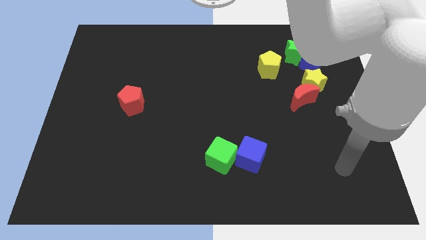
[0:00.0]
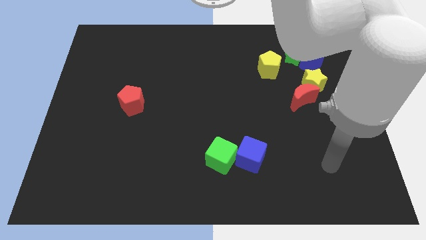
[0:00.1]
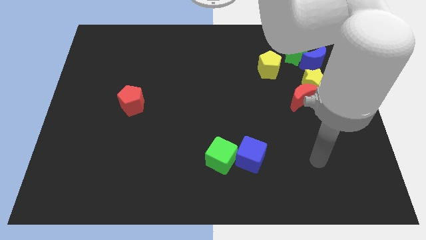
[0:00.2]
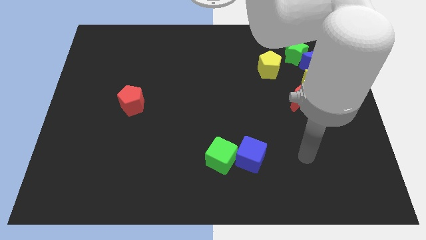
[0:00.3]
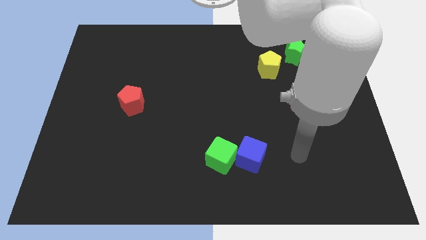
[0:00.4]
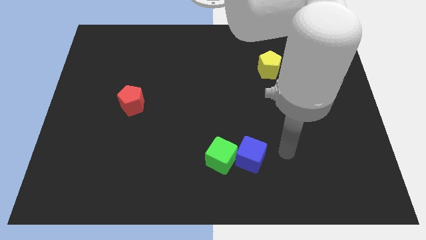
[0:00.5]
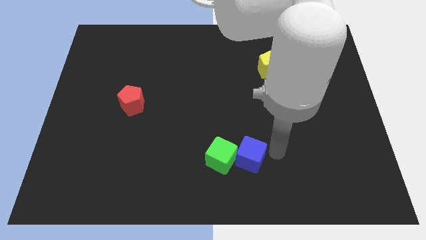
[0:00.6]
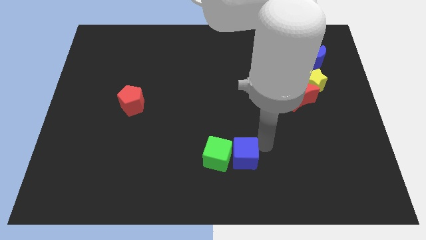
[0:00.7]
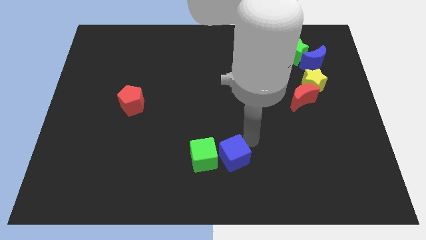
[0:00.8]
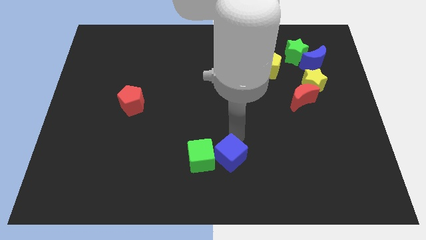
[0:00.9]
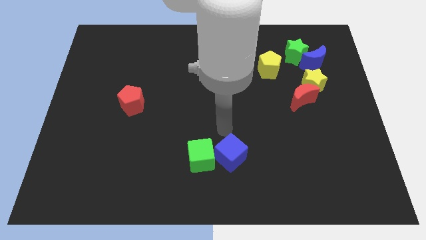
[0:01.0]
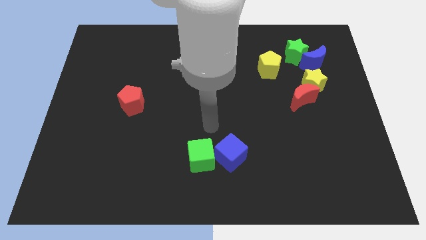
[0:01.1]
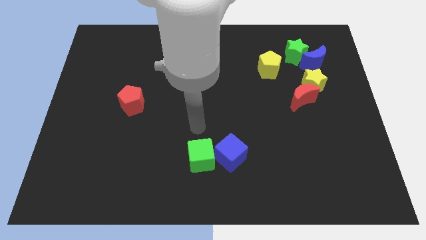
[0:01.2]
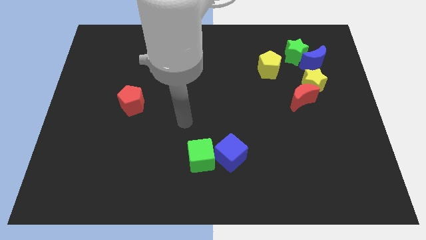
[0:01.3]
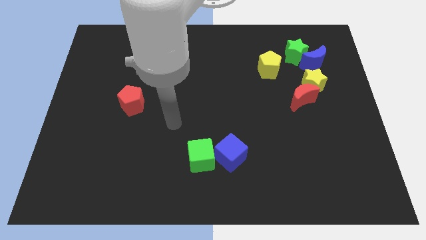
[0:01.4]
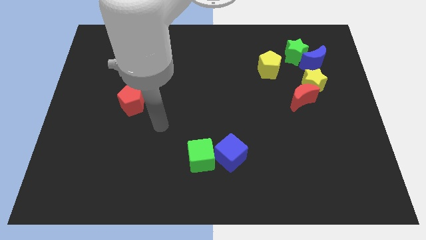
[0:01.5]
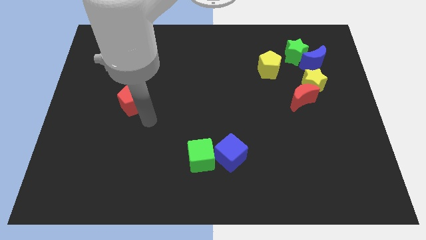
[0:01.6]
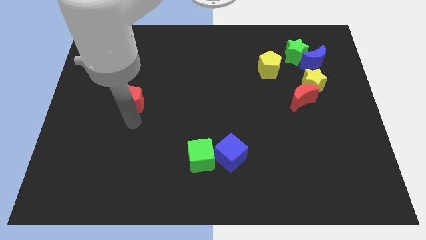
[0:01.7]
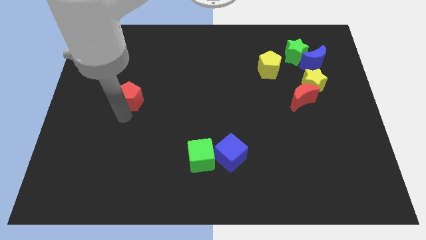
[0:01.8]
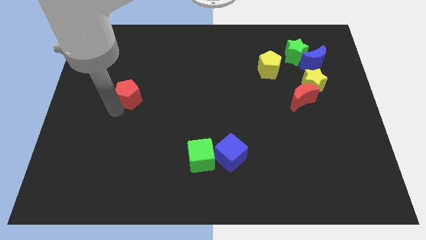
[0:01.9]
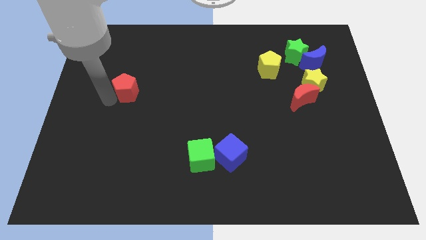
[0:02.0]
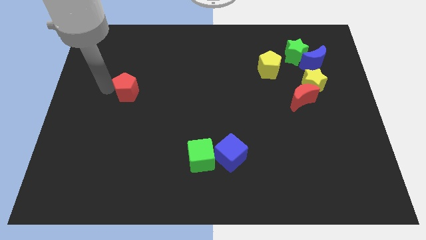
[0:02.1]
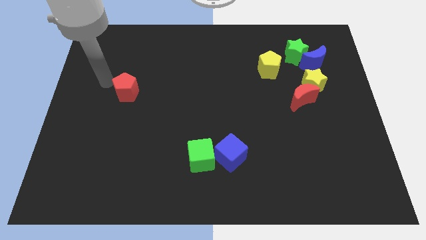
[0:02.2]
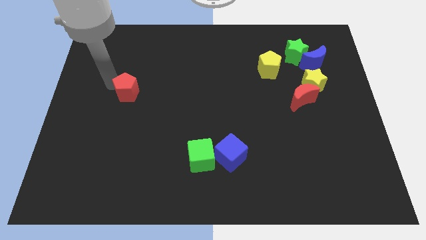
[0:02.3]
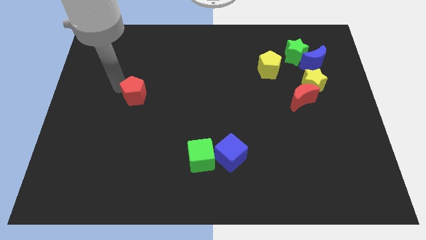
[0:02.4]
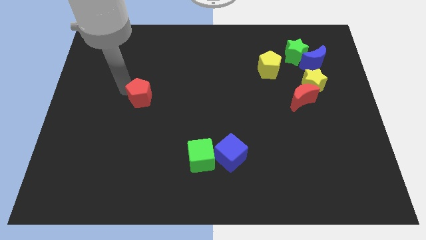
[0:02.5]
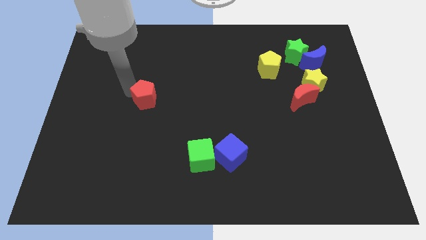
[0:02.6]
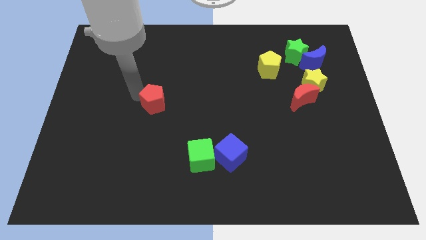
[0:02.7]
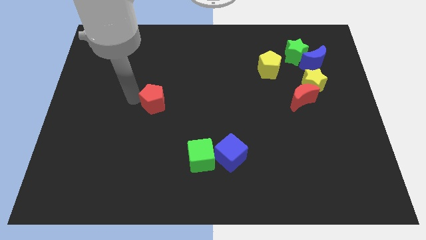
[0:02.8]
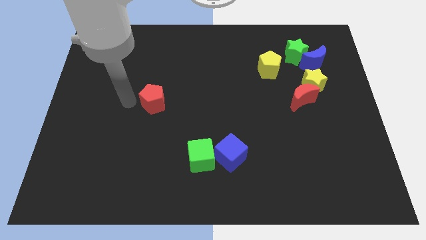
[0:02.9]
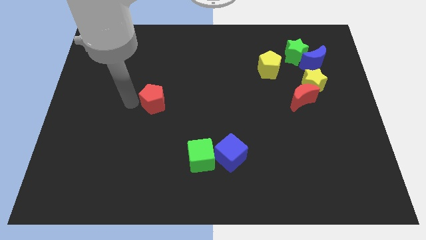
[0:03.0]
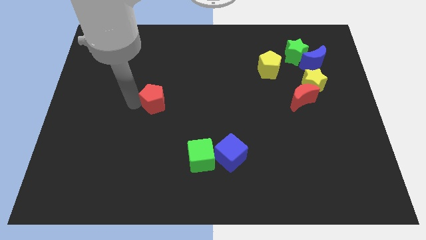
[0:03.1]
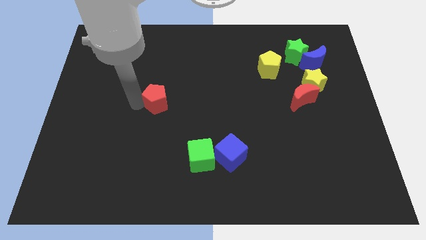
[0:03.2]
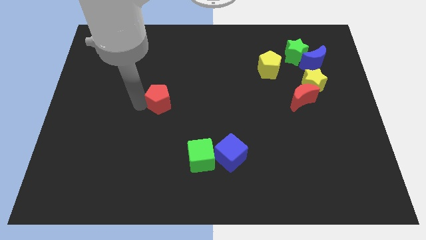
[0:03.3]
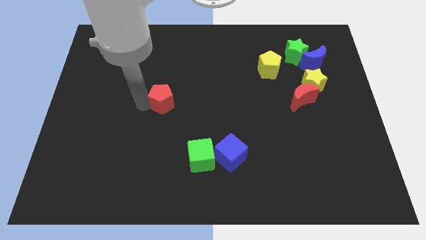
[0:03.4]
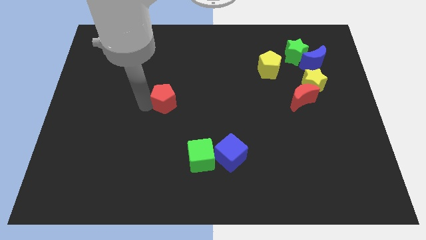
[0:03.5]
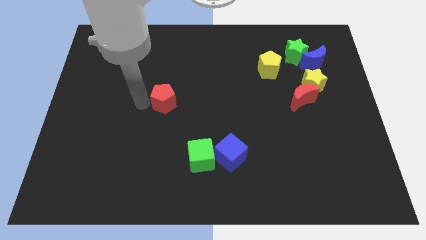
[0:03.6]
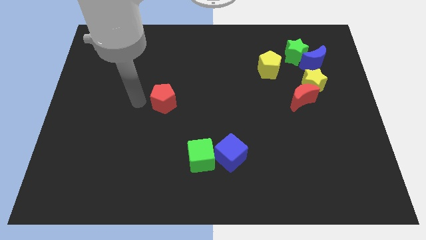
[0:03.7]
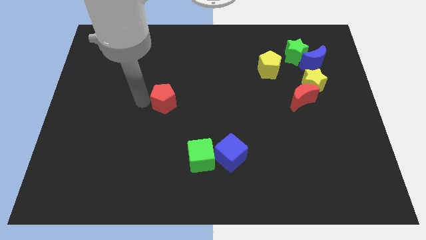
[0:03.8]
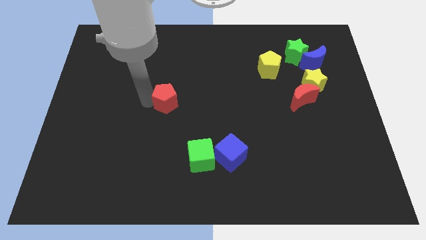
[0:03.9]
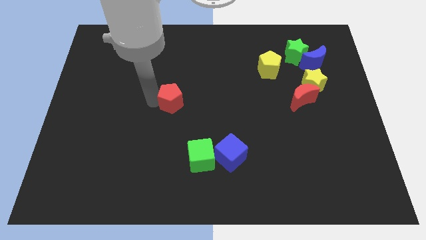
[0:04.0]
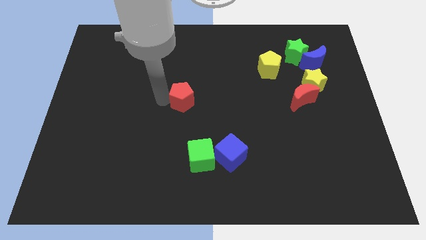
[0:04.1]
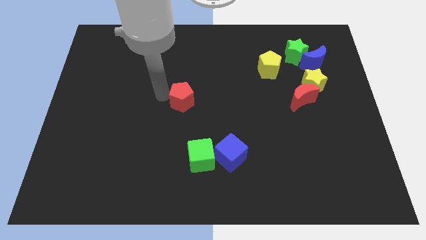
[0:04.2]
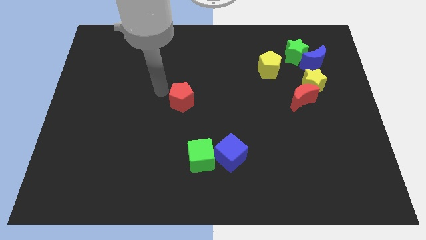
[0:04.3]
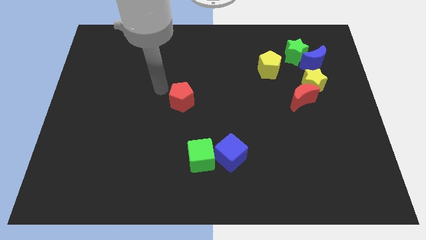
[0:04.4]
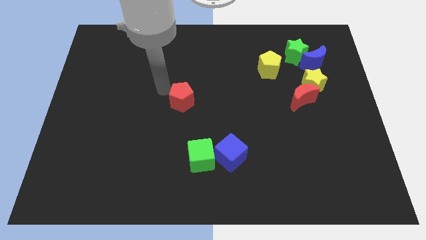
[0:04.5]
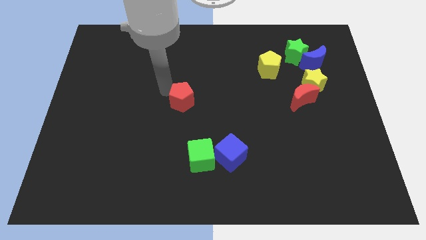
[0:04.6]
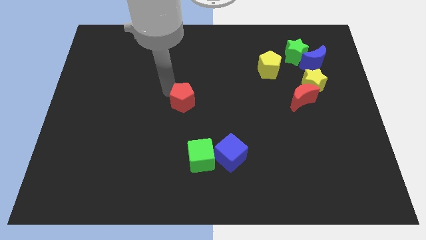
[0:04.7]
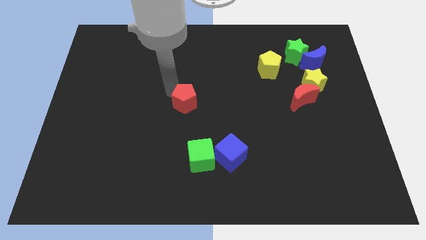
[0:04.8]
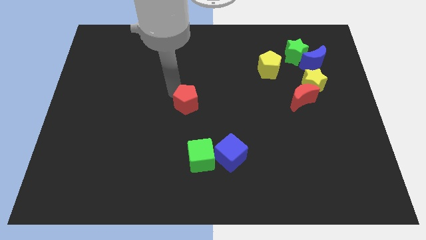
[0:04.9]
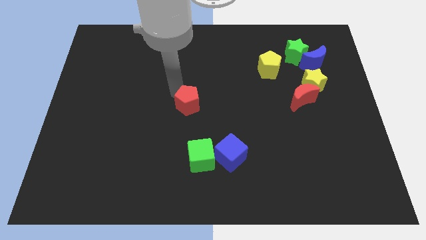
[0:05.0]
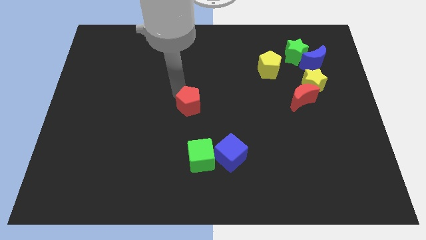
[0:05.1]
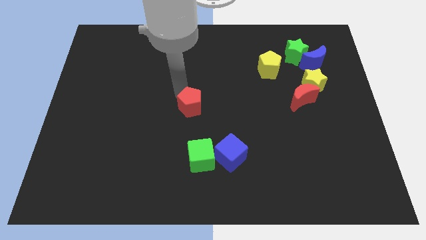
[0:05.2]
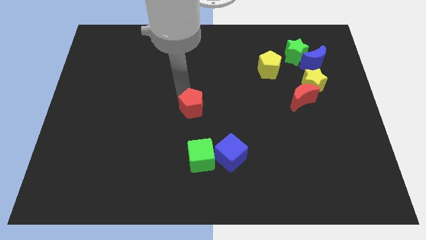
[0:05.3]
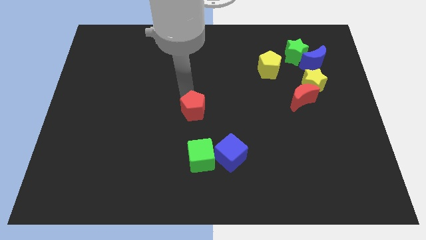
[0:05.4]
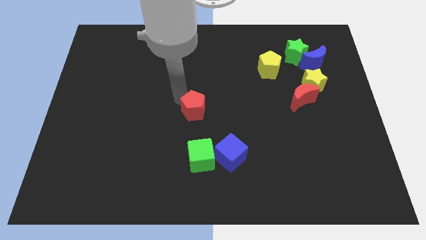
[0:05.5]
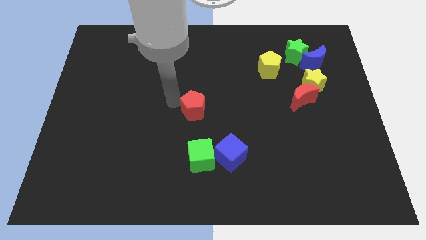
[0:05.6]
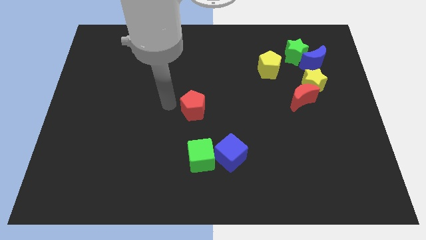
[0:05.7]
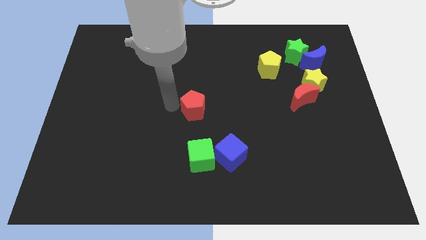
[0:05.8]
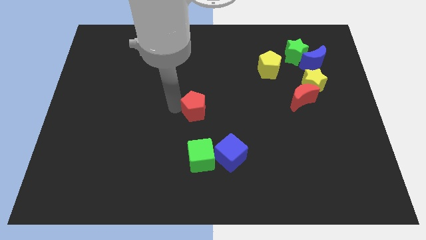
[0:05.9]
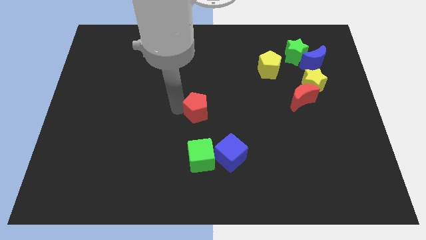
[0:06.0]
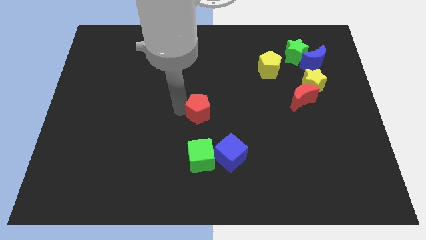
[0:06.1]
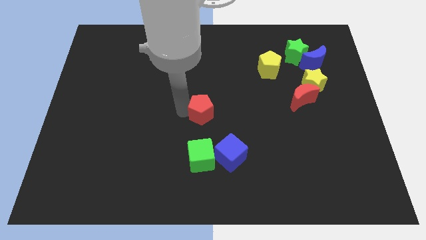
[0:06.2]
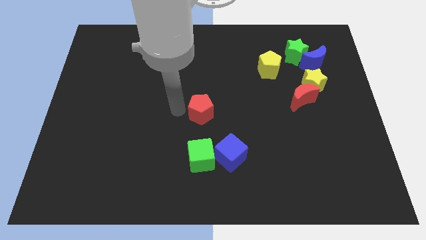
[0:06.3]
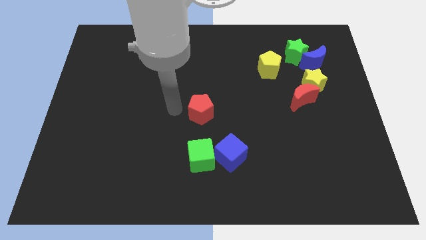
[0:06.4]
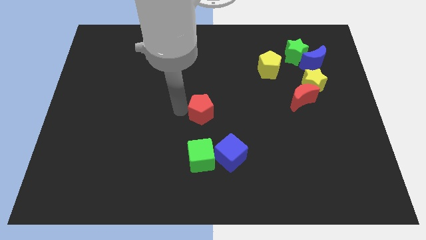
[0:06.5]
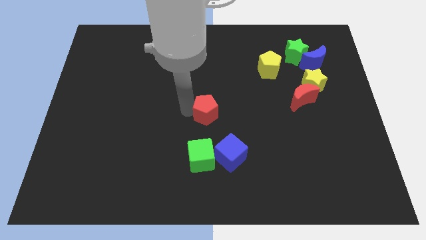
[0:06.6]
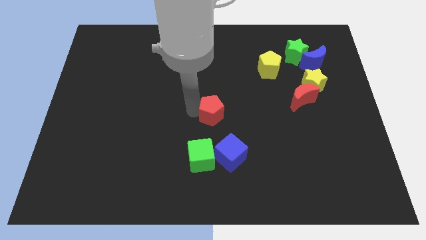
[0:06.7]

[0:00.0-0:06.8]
push the red pentagon to the top of the blue cube
